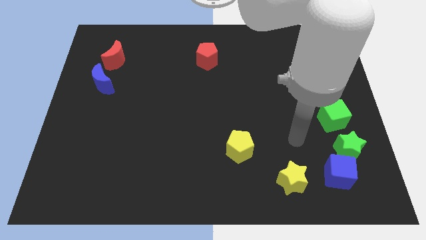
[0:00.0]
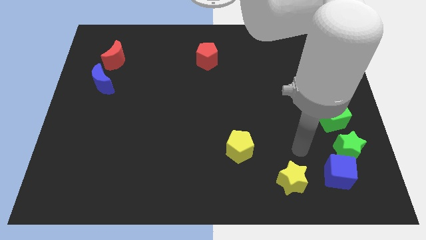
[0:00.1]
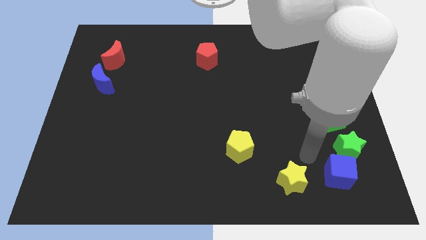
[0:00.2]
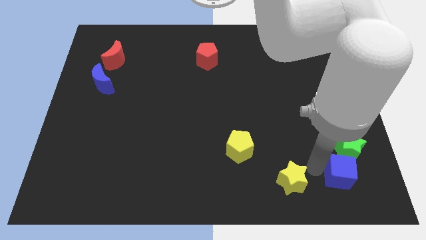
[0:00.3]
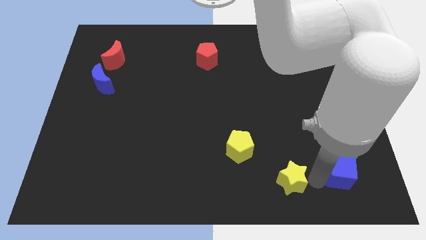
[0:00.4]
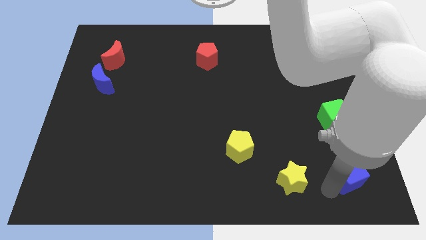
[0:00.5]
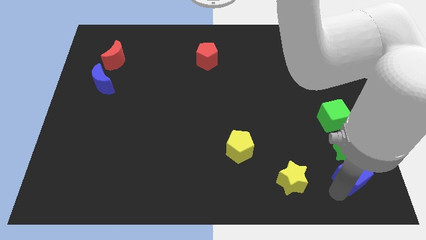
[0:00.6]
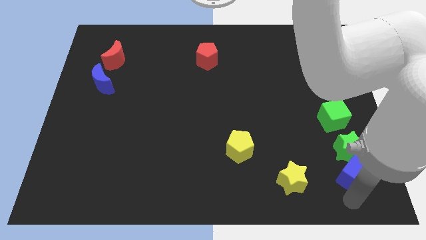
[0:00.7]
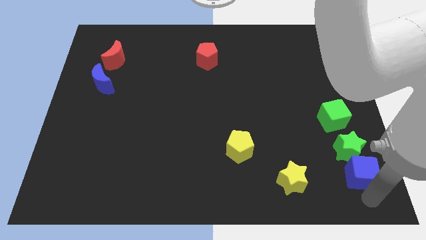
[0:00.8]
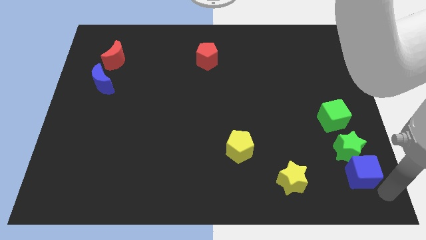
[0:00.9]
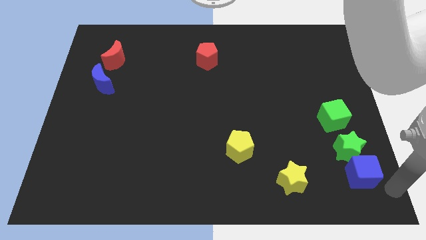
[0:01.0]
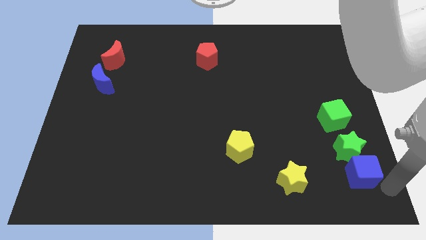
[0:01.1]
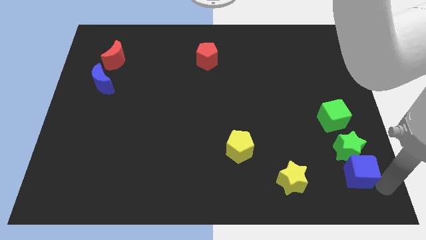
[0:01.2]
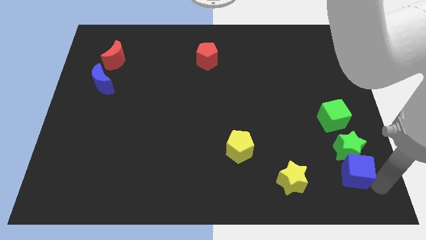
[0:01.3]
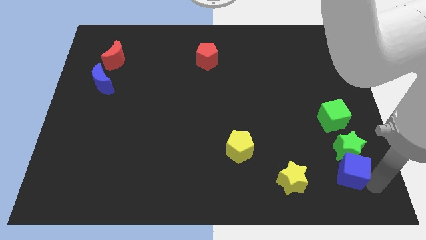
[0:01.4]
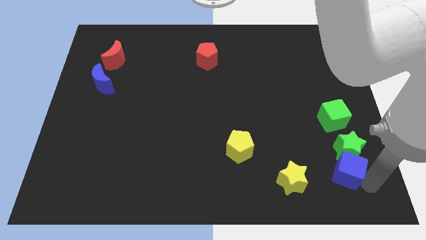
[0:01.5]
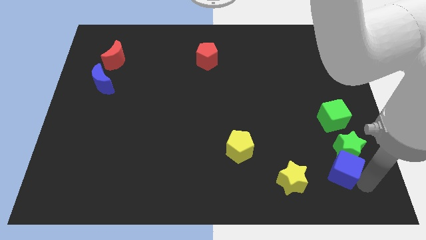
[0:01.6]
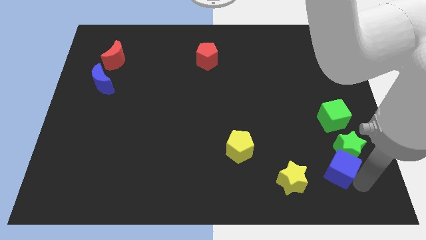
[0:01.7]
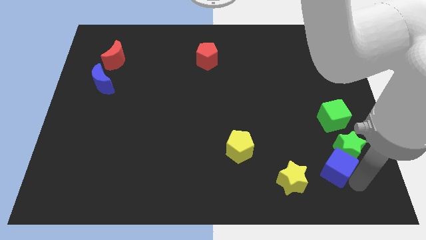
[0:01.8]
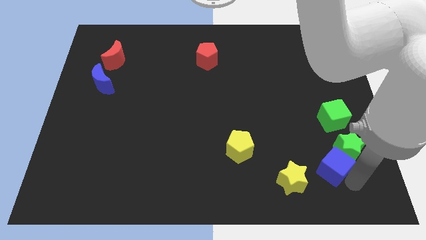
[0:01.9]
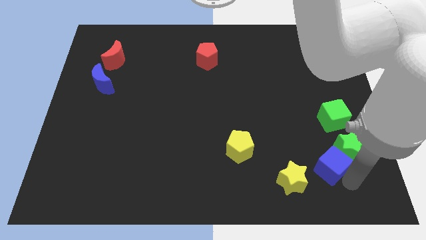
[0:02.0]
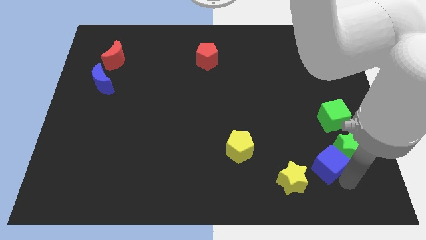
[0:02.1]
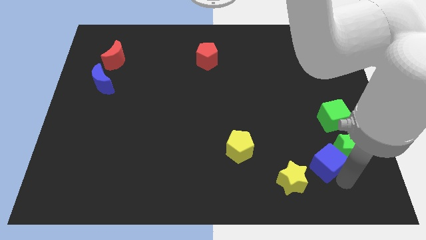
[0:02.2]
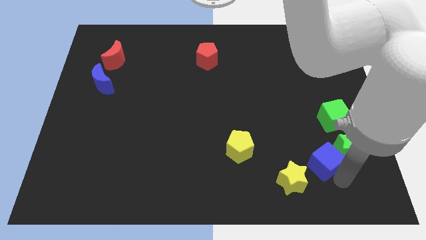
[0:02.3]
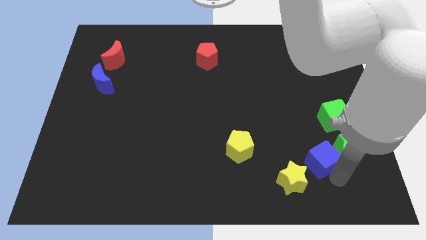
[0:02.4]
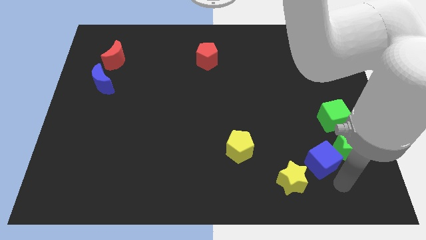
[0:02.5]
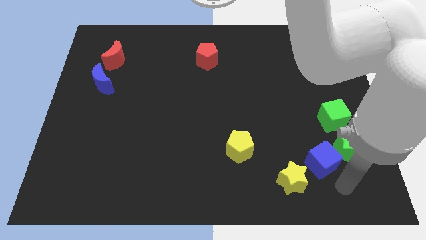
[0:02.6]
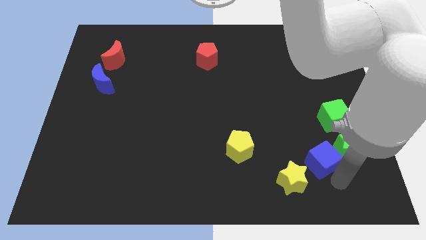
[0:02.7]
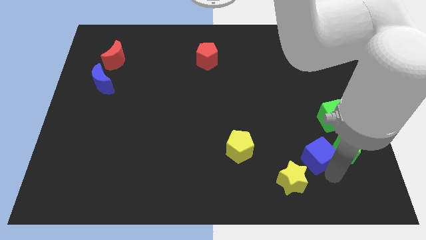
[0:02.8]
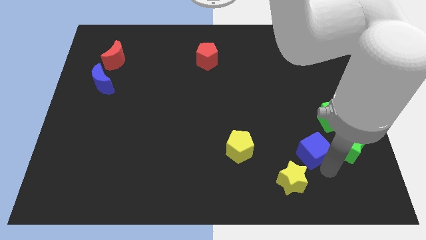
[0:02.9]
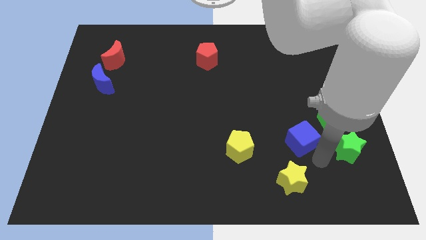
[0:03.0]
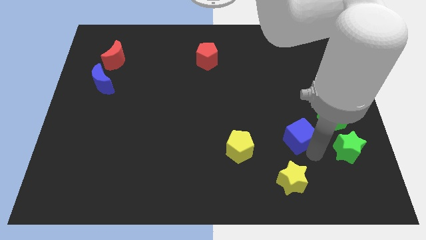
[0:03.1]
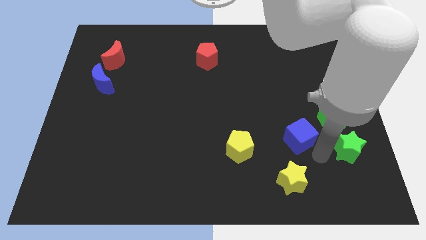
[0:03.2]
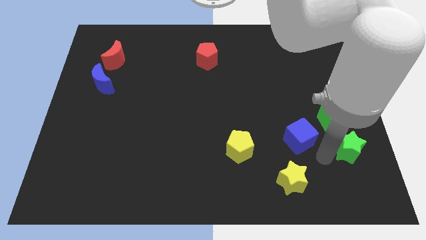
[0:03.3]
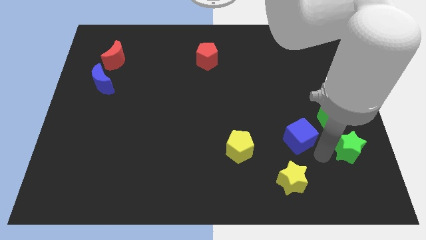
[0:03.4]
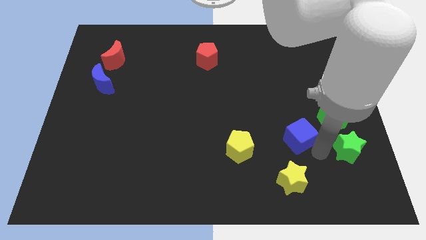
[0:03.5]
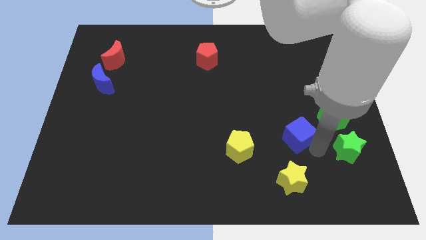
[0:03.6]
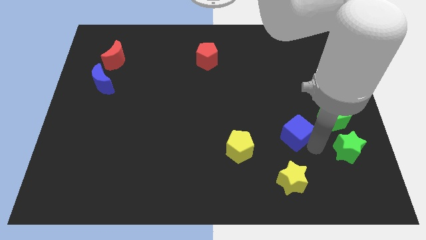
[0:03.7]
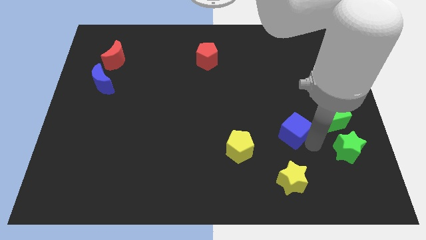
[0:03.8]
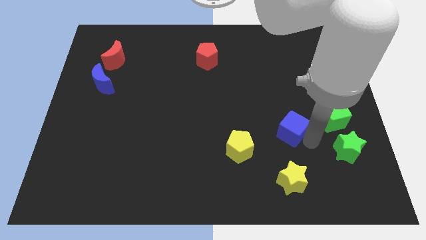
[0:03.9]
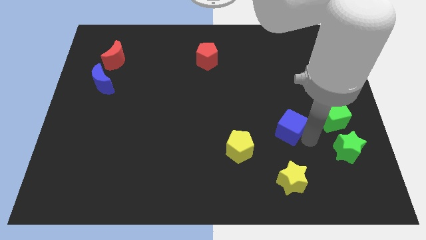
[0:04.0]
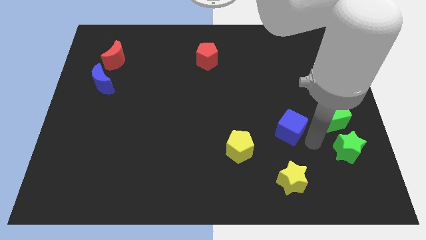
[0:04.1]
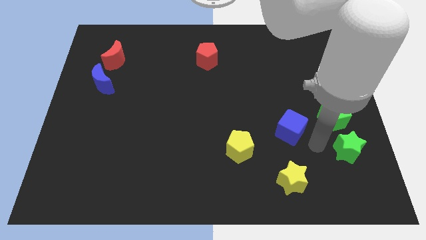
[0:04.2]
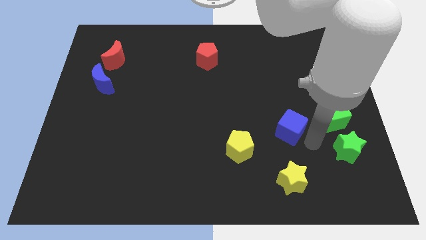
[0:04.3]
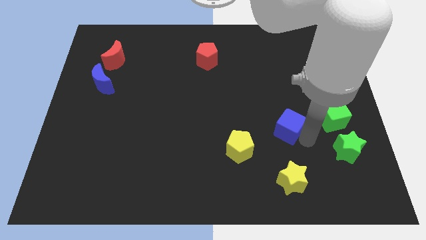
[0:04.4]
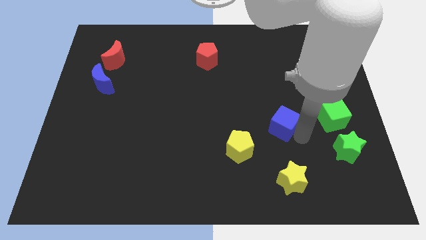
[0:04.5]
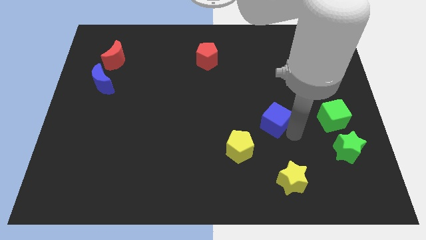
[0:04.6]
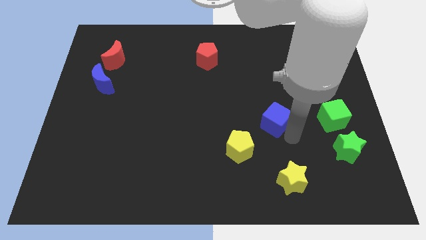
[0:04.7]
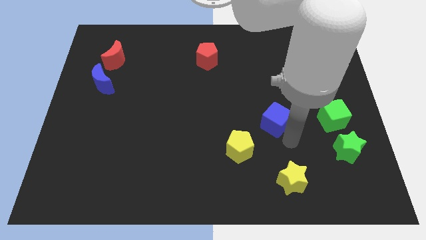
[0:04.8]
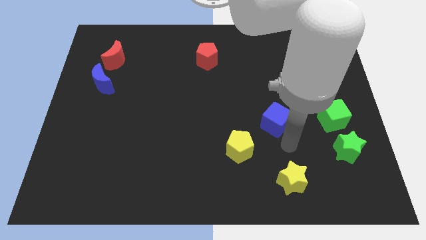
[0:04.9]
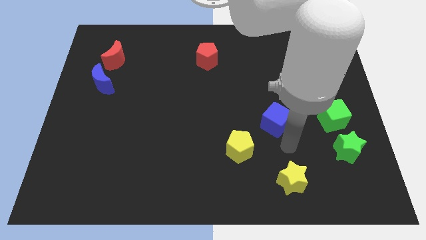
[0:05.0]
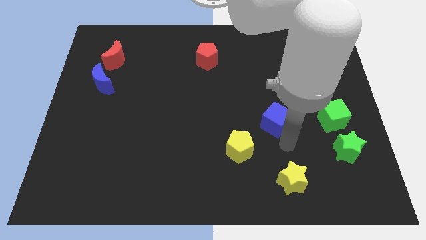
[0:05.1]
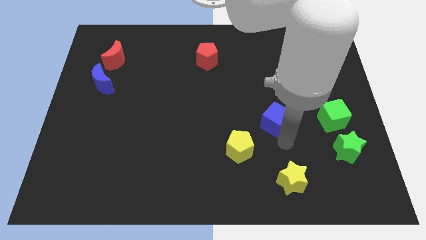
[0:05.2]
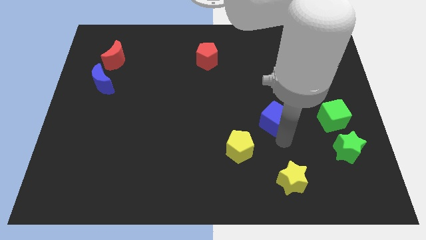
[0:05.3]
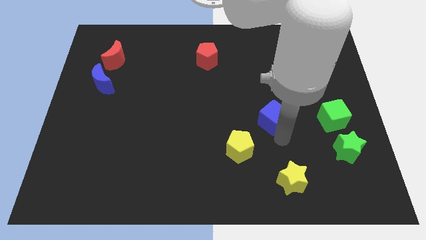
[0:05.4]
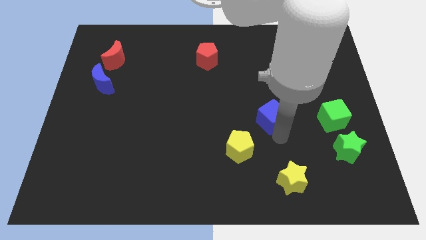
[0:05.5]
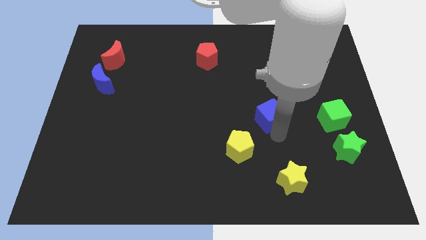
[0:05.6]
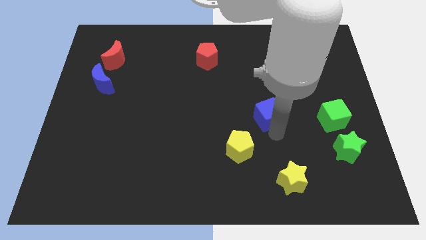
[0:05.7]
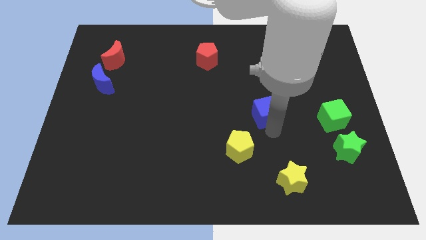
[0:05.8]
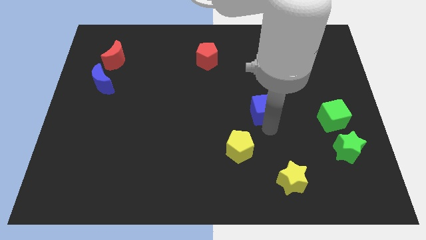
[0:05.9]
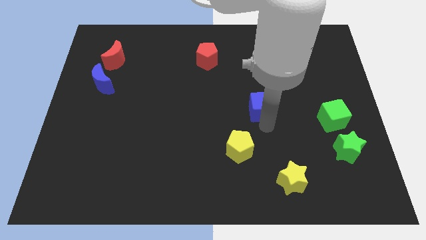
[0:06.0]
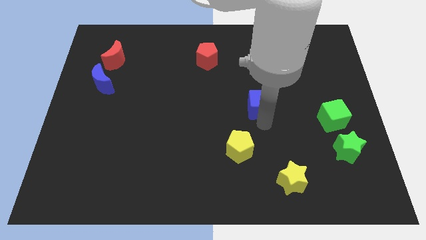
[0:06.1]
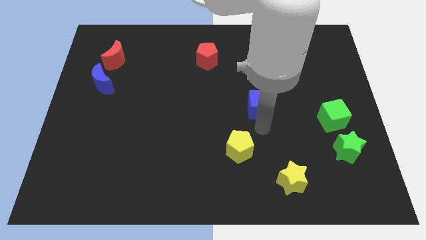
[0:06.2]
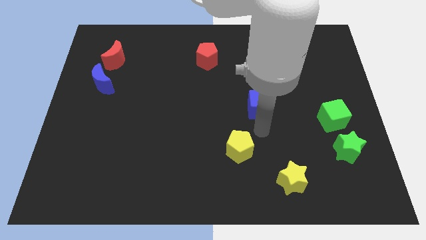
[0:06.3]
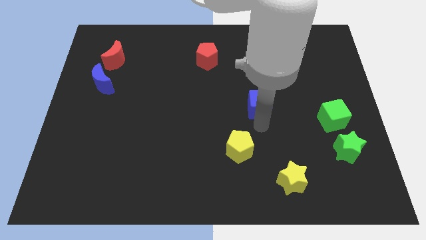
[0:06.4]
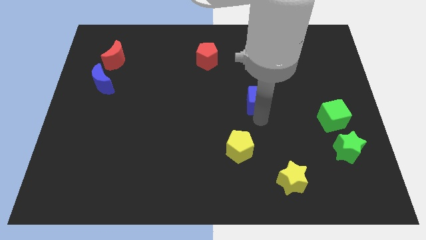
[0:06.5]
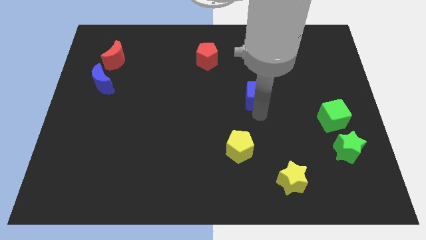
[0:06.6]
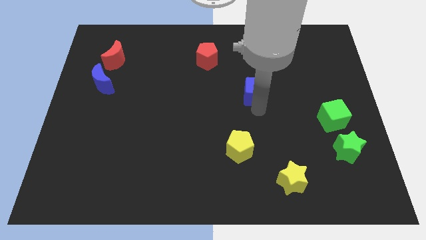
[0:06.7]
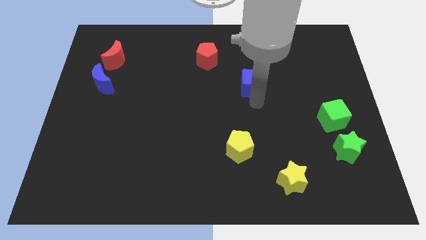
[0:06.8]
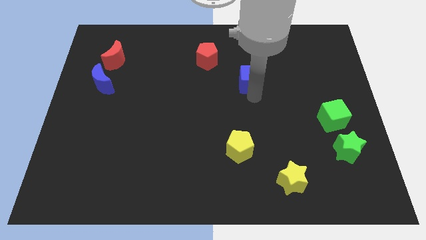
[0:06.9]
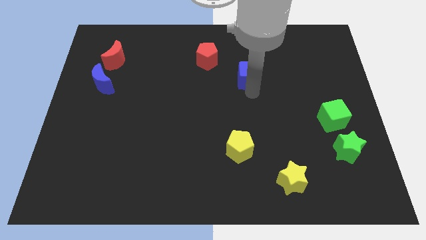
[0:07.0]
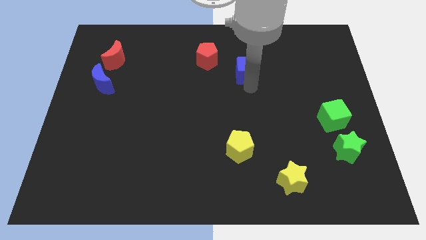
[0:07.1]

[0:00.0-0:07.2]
slide the blue cube to the right side of the red pentagon

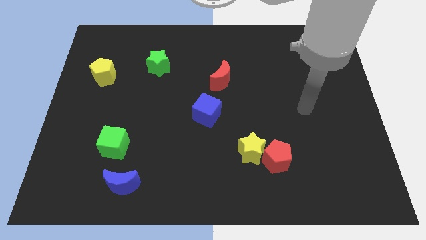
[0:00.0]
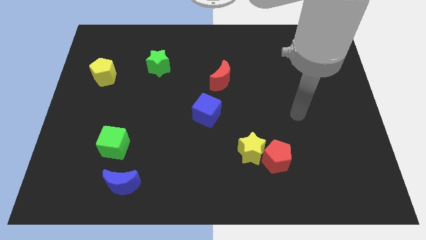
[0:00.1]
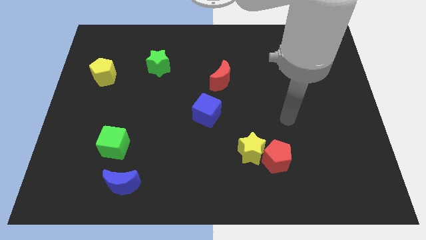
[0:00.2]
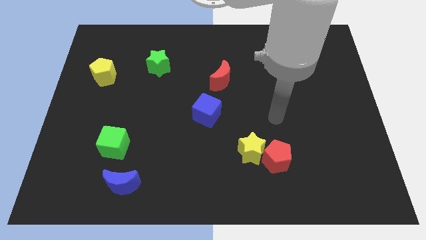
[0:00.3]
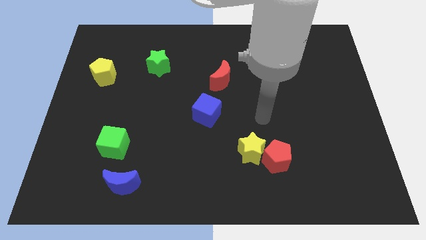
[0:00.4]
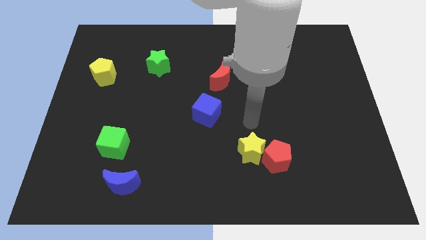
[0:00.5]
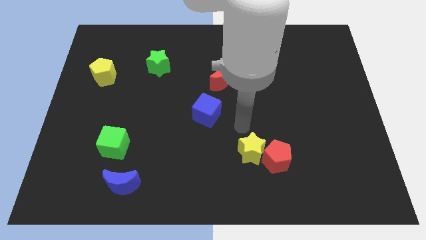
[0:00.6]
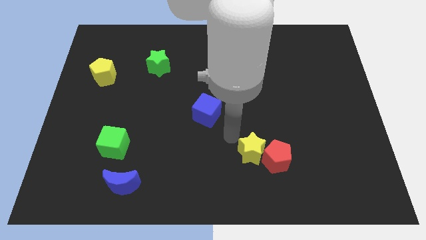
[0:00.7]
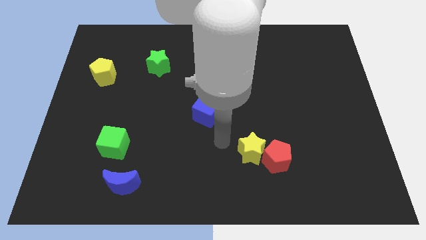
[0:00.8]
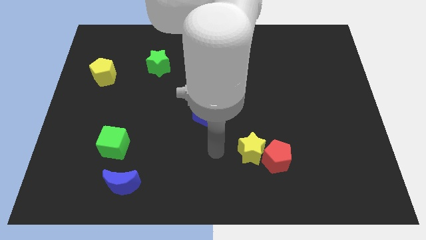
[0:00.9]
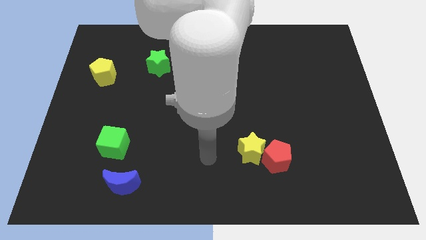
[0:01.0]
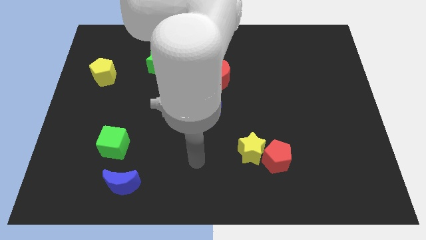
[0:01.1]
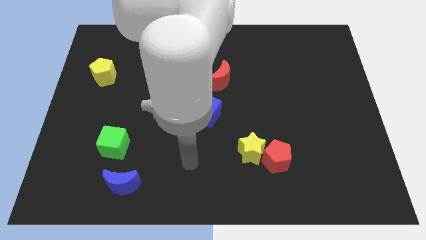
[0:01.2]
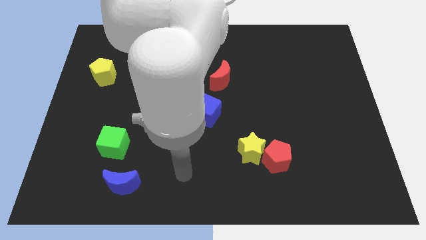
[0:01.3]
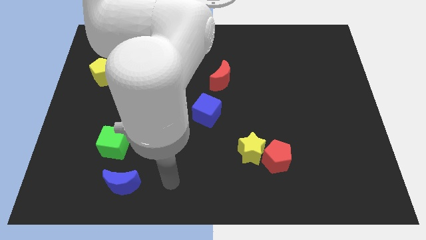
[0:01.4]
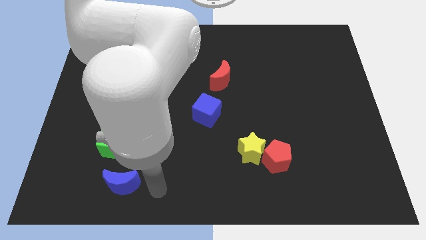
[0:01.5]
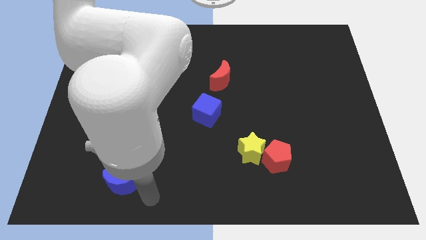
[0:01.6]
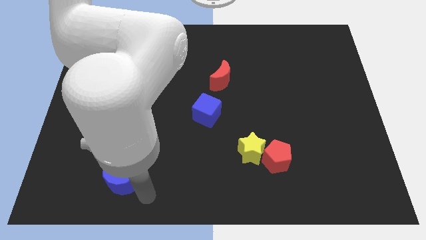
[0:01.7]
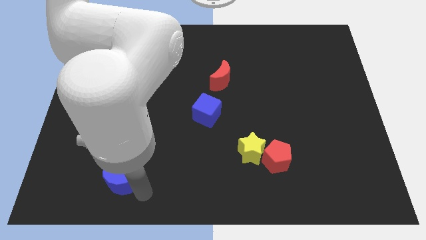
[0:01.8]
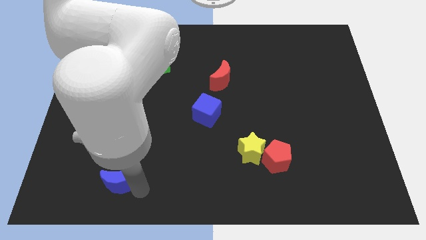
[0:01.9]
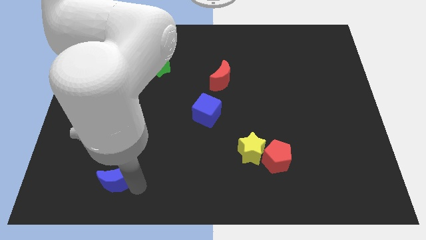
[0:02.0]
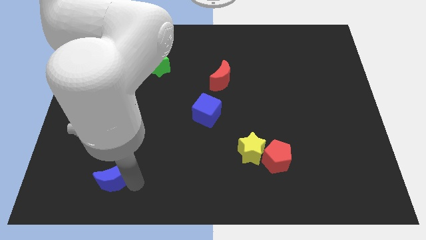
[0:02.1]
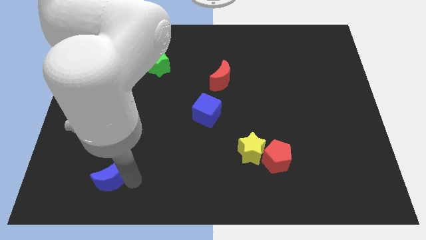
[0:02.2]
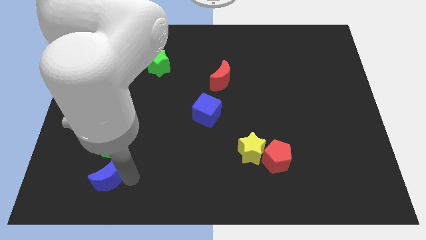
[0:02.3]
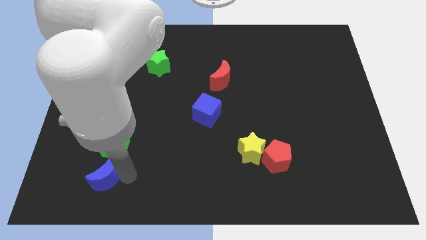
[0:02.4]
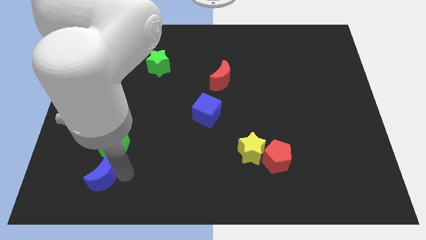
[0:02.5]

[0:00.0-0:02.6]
push the blue moon diagonally down and to the left of the green cube
